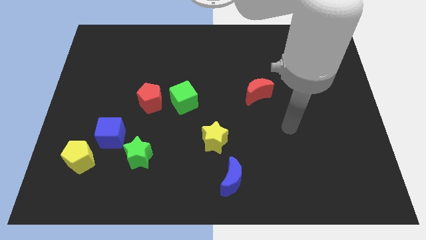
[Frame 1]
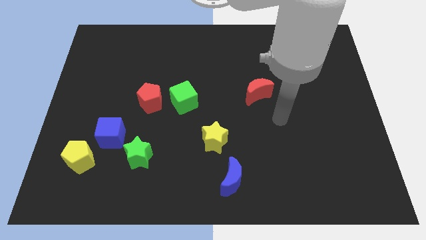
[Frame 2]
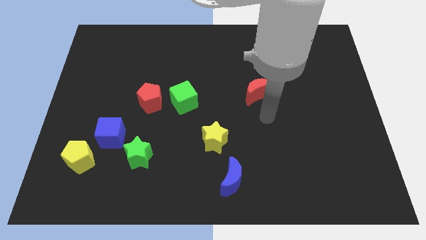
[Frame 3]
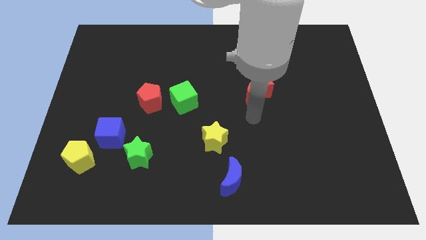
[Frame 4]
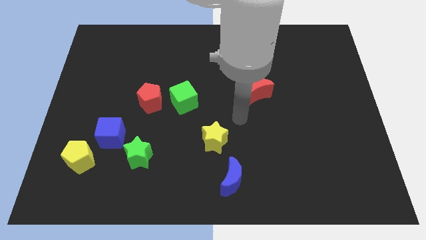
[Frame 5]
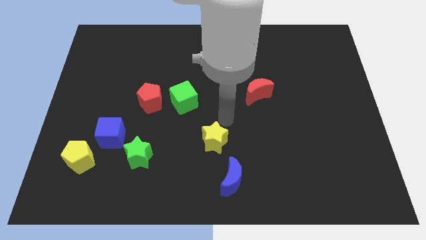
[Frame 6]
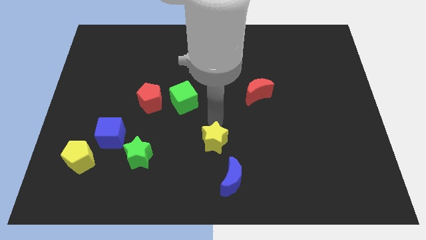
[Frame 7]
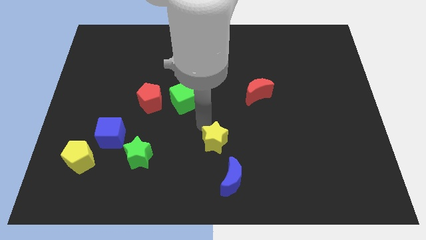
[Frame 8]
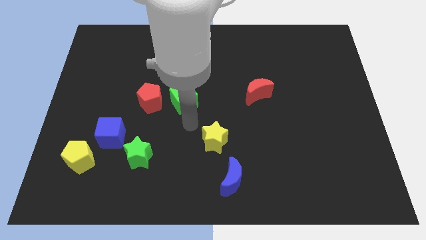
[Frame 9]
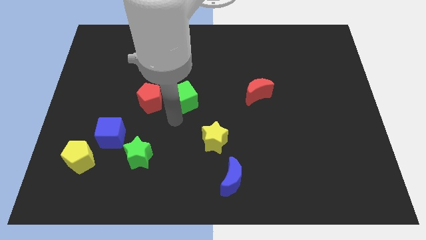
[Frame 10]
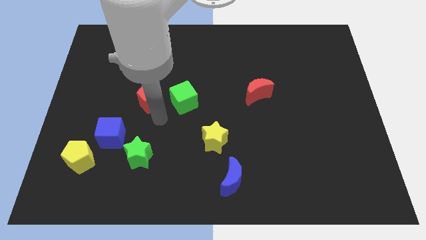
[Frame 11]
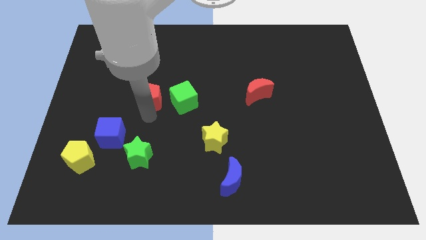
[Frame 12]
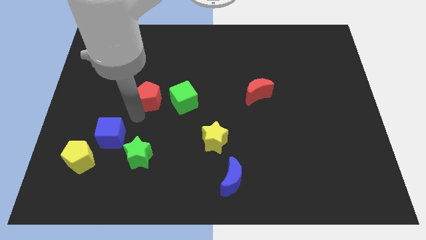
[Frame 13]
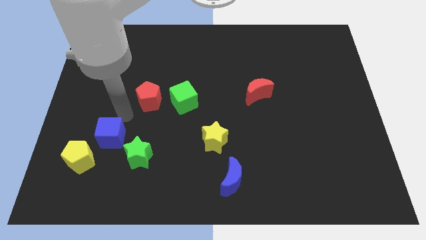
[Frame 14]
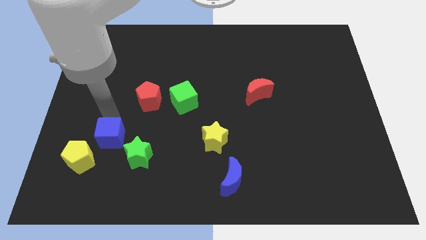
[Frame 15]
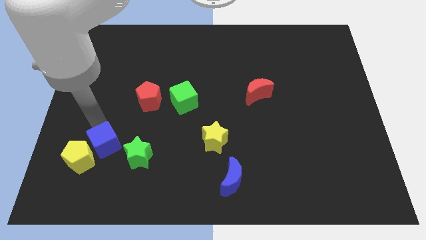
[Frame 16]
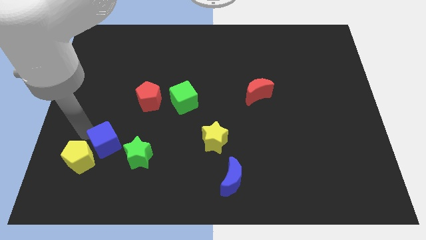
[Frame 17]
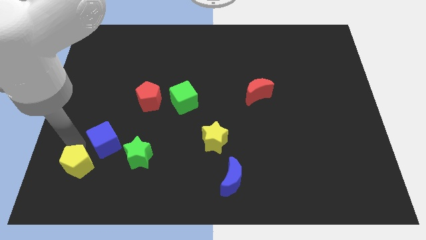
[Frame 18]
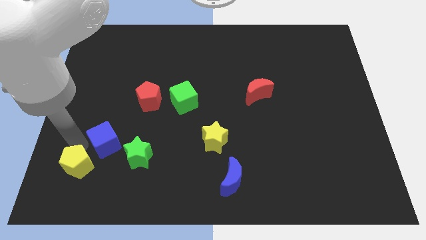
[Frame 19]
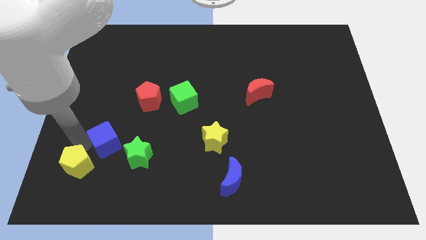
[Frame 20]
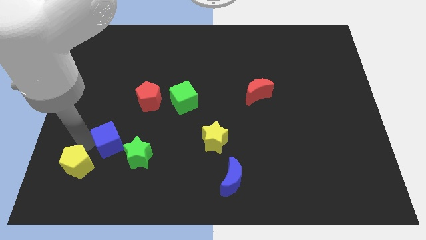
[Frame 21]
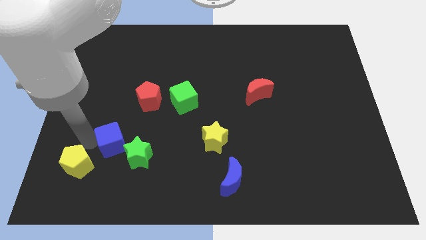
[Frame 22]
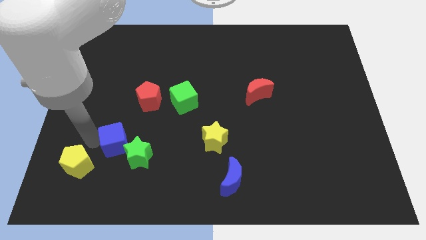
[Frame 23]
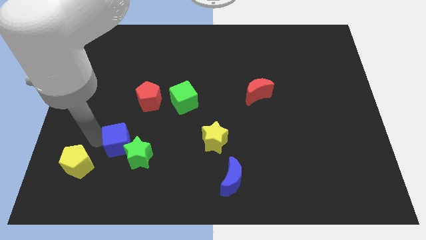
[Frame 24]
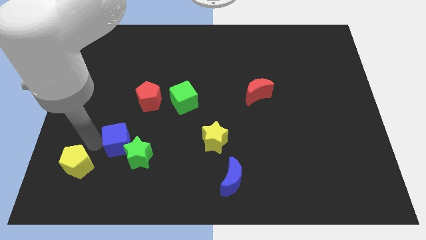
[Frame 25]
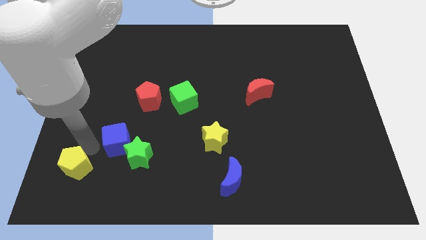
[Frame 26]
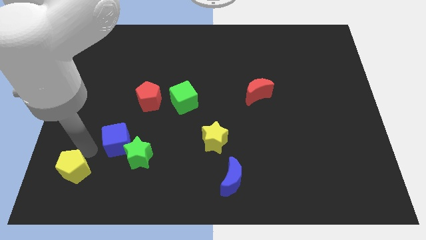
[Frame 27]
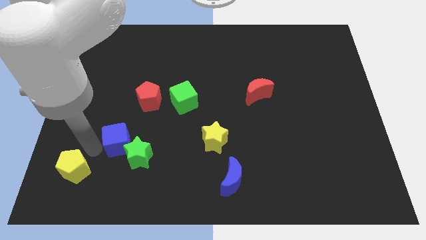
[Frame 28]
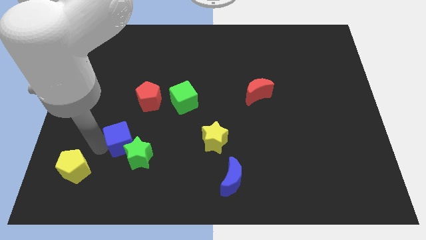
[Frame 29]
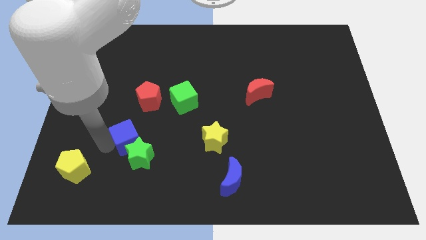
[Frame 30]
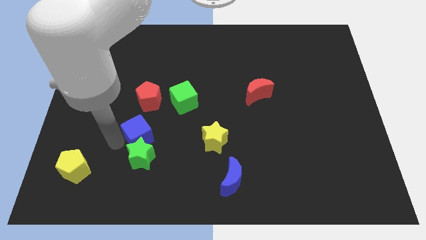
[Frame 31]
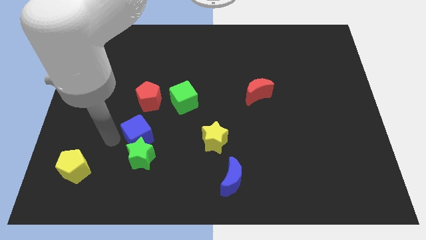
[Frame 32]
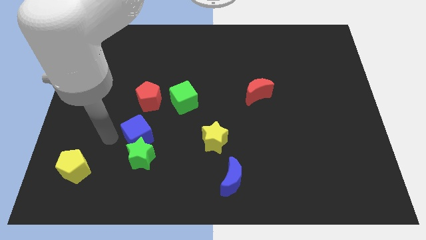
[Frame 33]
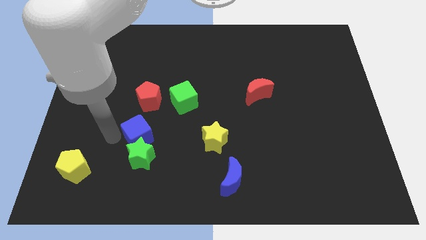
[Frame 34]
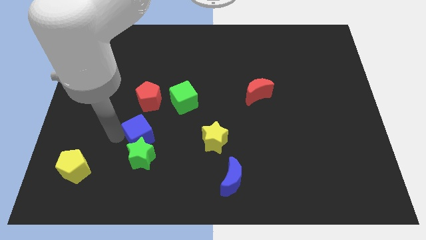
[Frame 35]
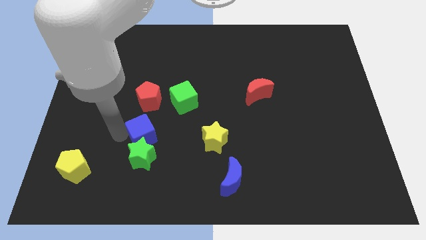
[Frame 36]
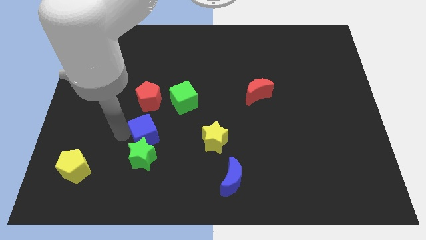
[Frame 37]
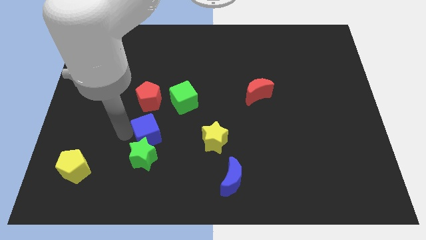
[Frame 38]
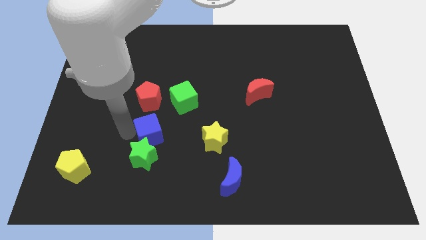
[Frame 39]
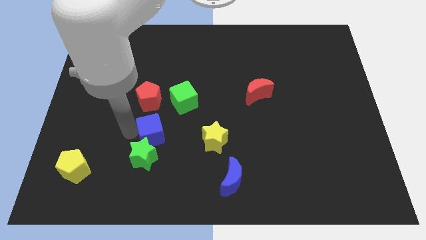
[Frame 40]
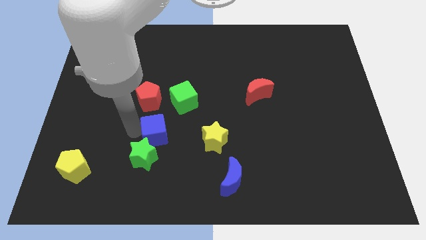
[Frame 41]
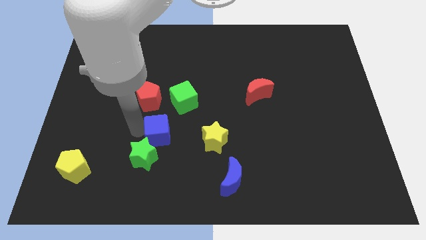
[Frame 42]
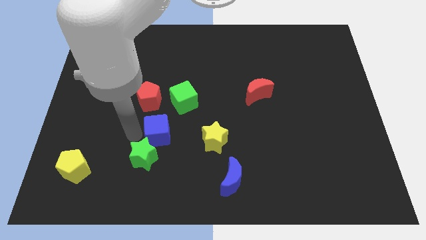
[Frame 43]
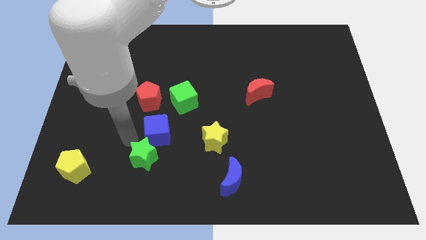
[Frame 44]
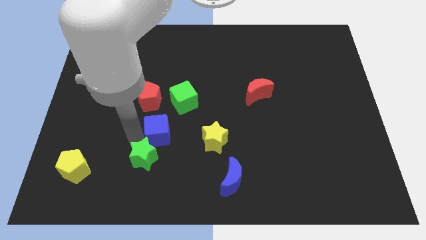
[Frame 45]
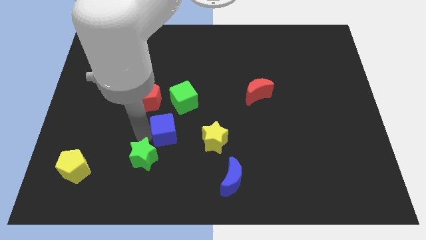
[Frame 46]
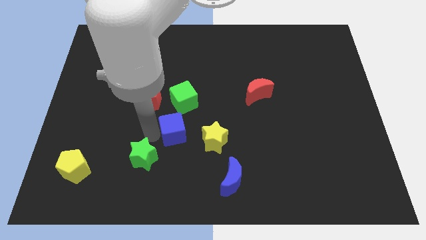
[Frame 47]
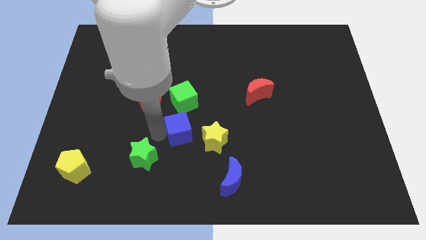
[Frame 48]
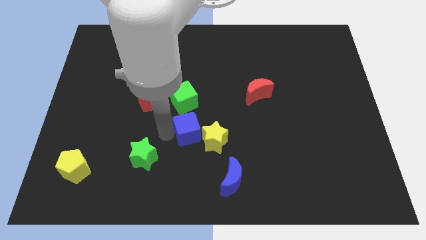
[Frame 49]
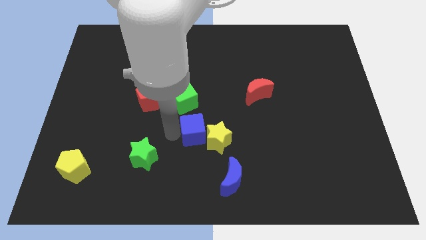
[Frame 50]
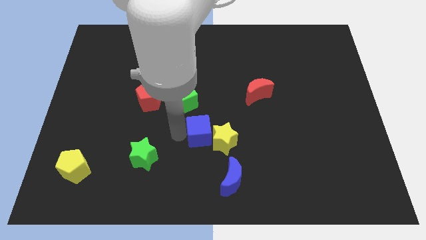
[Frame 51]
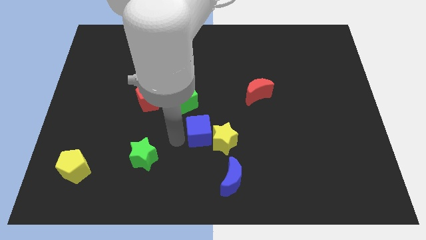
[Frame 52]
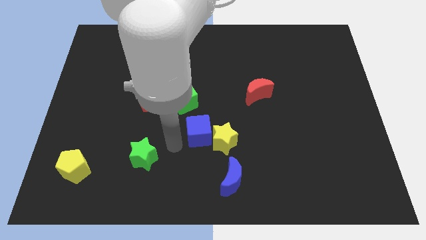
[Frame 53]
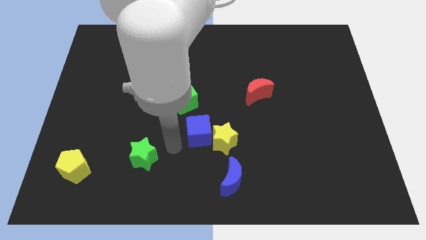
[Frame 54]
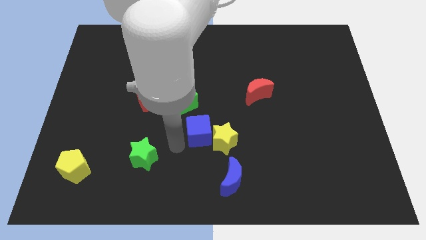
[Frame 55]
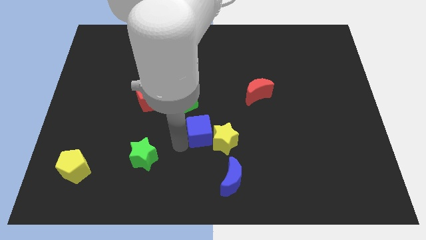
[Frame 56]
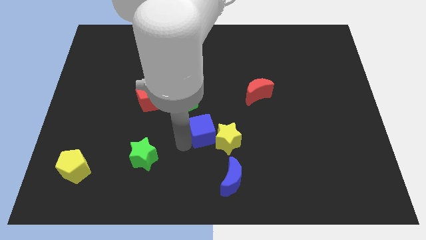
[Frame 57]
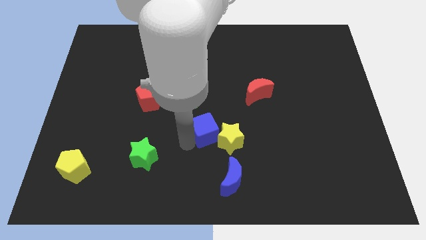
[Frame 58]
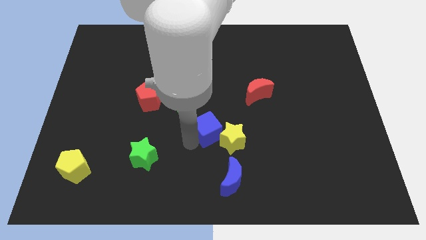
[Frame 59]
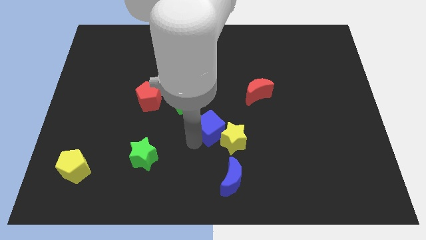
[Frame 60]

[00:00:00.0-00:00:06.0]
put the blue cube to the top side of the blue moon

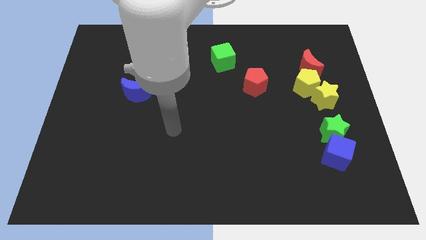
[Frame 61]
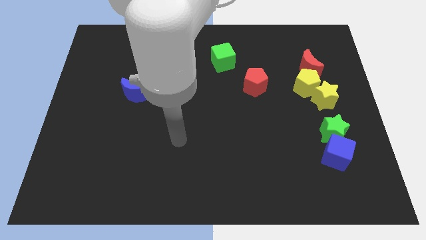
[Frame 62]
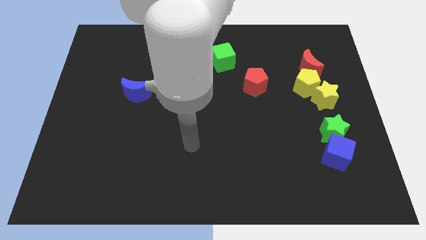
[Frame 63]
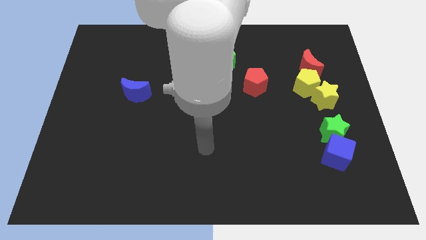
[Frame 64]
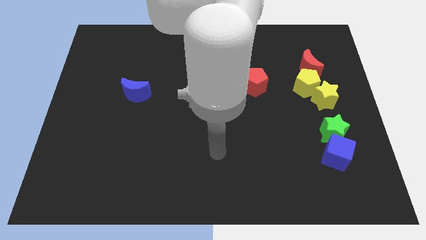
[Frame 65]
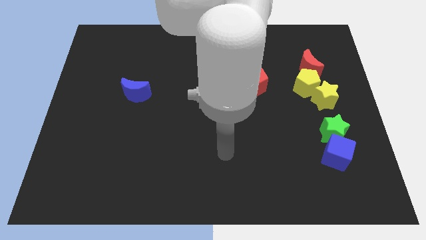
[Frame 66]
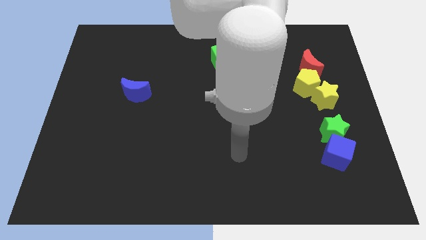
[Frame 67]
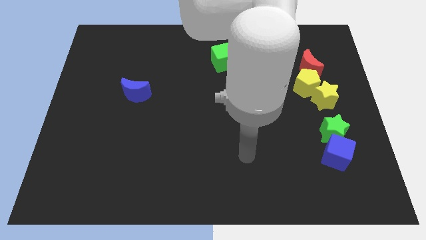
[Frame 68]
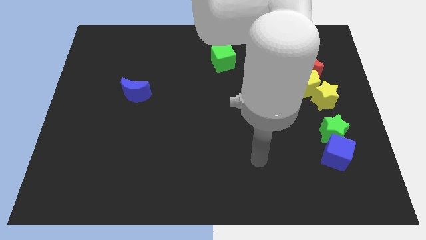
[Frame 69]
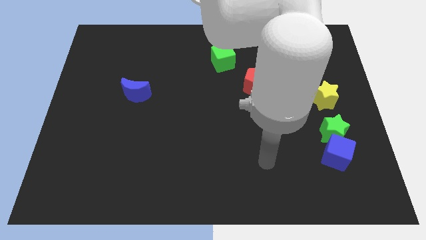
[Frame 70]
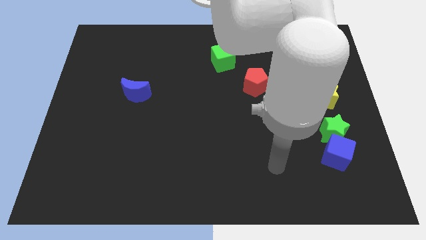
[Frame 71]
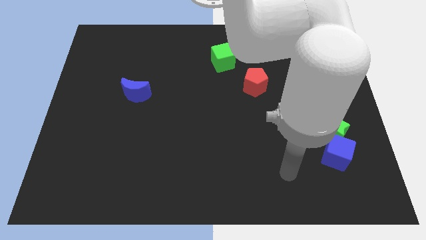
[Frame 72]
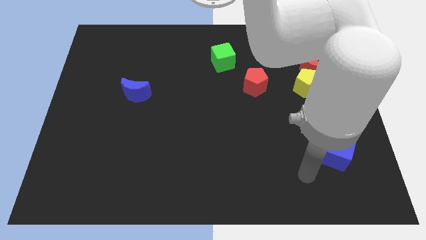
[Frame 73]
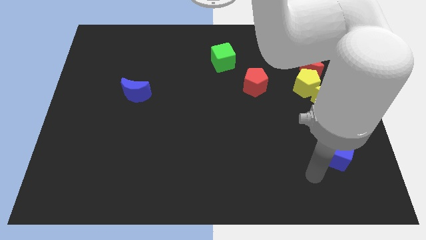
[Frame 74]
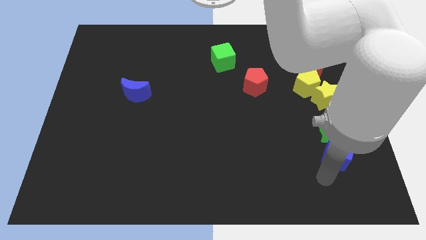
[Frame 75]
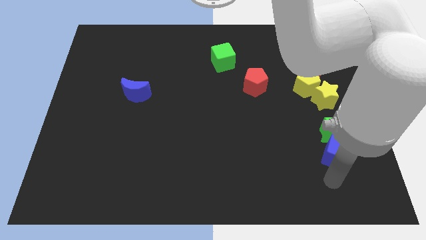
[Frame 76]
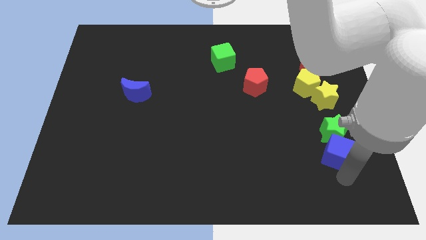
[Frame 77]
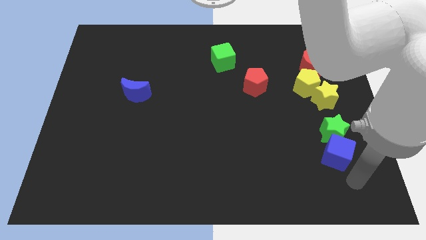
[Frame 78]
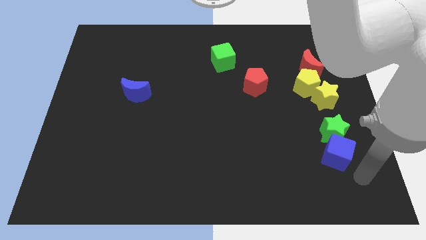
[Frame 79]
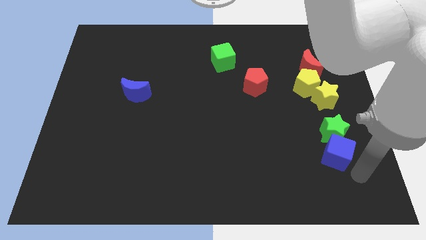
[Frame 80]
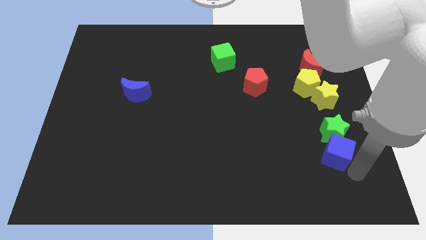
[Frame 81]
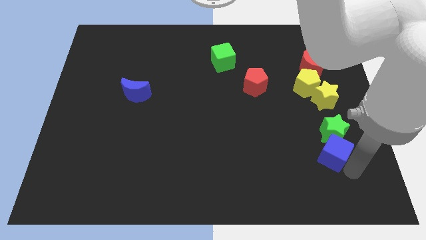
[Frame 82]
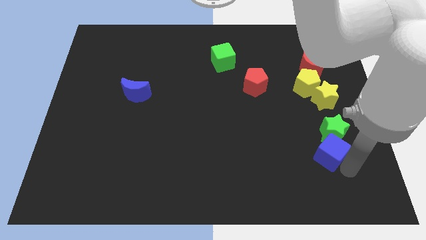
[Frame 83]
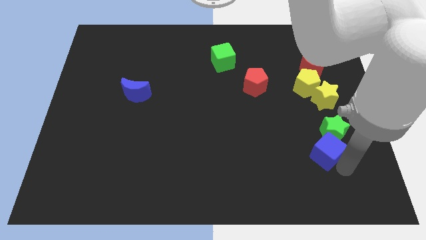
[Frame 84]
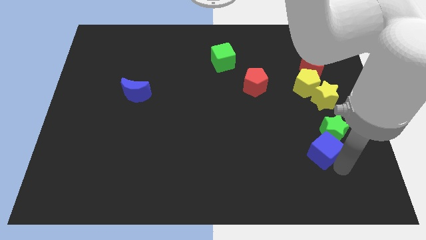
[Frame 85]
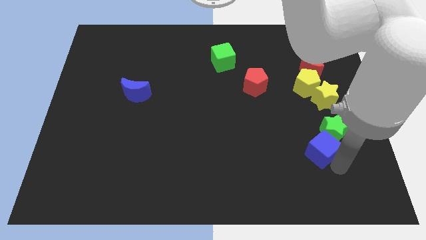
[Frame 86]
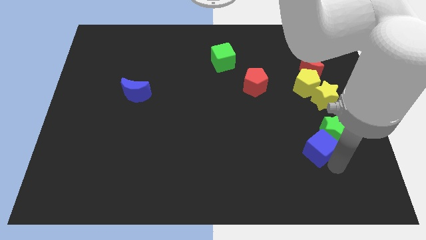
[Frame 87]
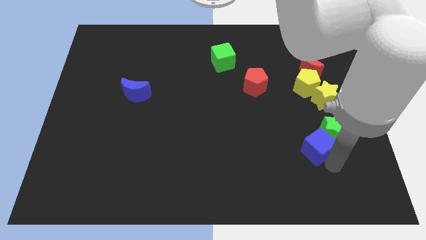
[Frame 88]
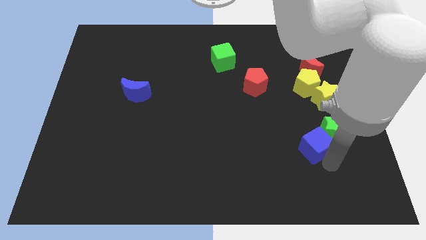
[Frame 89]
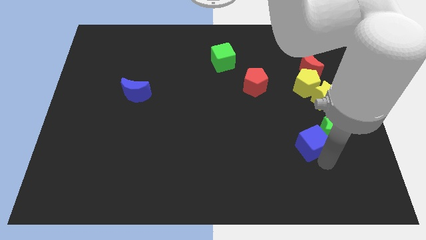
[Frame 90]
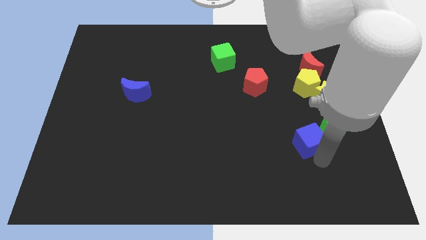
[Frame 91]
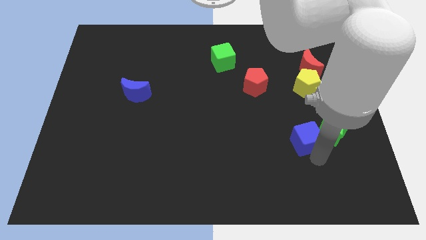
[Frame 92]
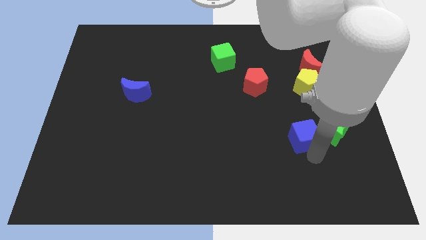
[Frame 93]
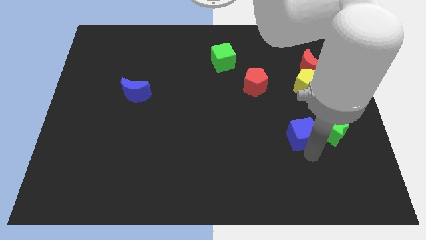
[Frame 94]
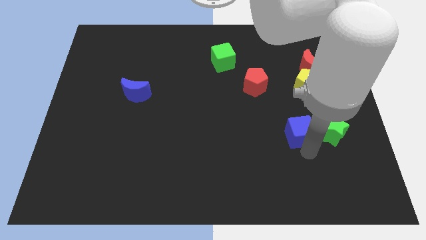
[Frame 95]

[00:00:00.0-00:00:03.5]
move the blue cube to the bottom left of the yellow star
